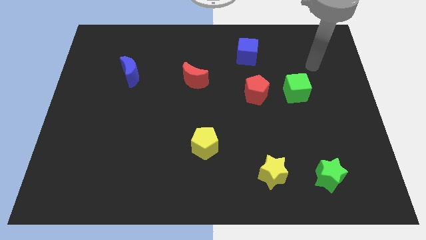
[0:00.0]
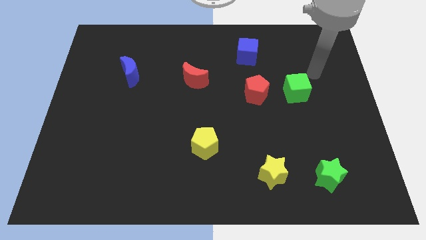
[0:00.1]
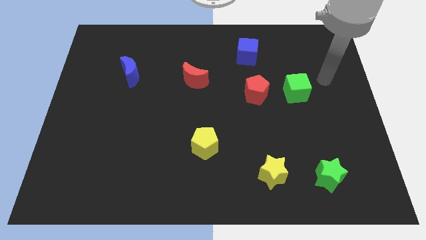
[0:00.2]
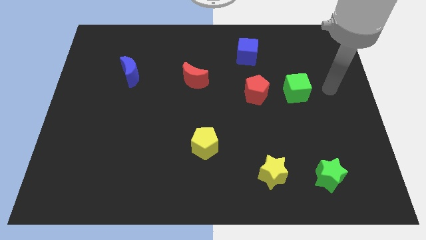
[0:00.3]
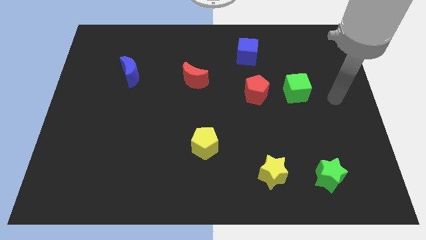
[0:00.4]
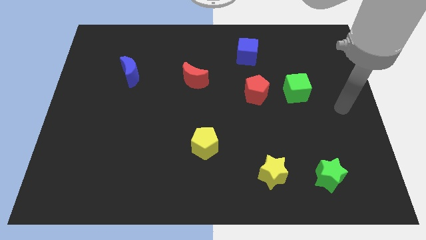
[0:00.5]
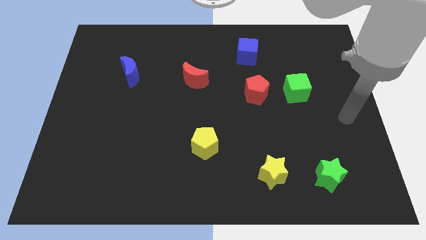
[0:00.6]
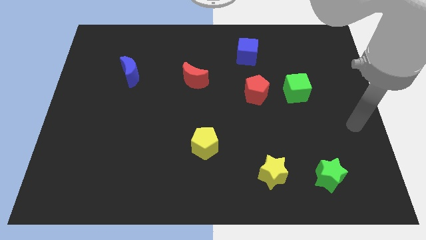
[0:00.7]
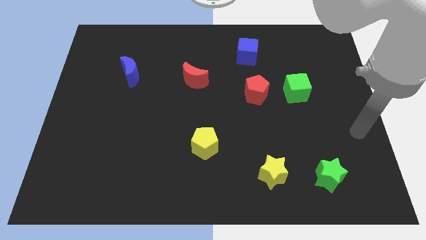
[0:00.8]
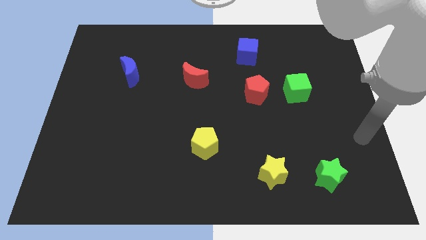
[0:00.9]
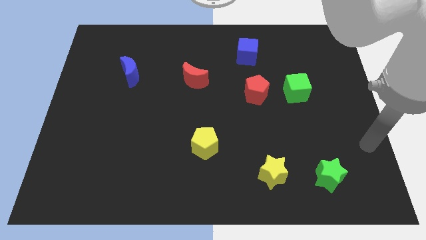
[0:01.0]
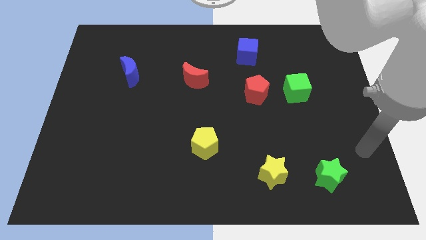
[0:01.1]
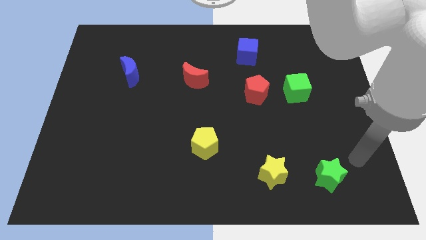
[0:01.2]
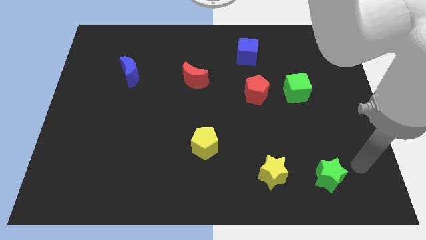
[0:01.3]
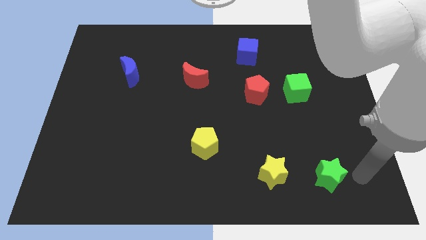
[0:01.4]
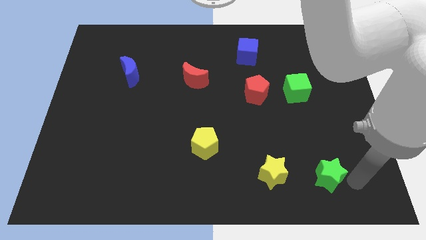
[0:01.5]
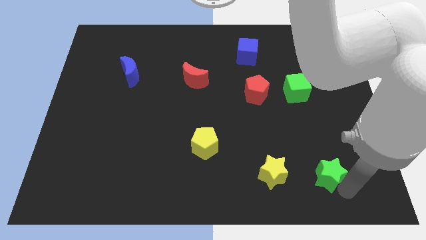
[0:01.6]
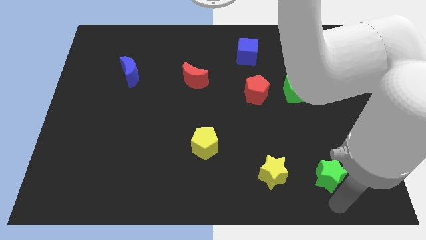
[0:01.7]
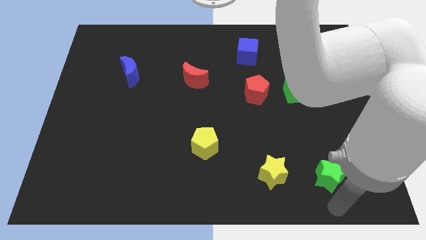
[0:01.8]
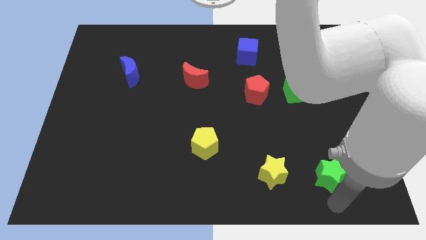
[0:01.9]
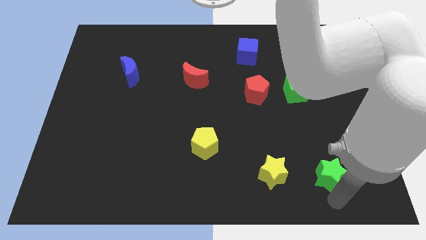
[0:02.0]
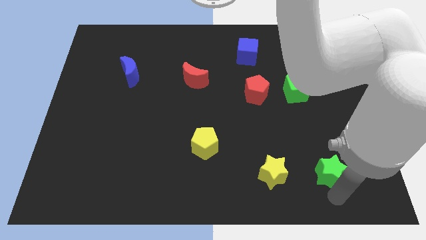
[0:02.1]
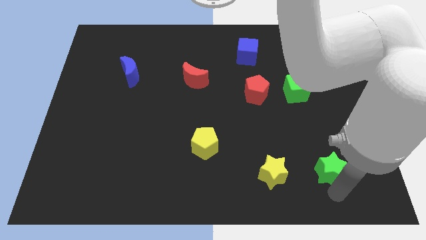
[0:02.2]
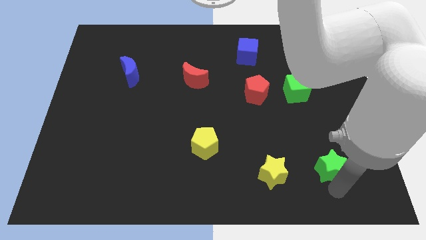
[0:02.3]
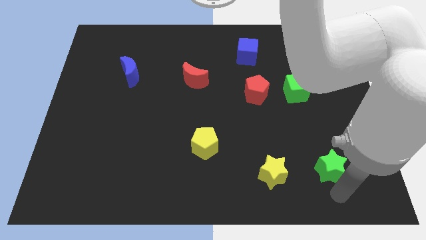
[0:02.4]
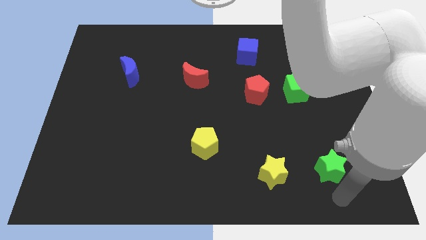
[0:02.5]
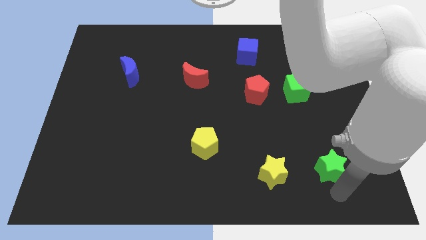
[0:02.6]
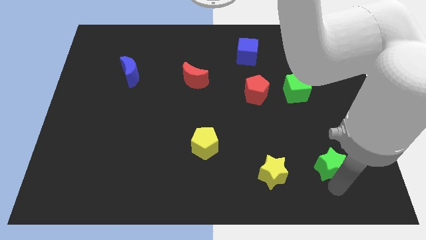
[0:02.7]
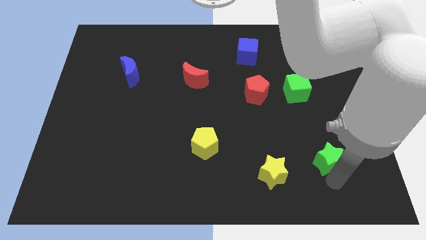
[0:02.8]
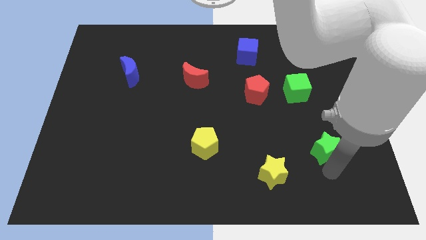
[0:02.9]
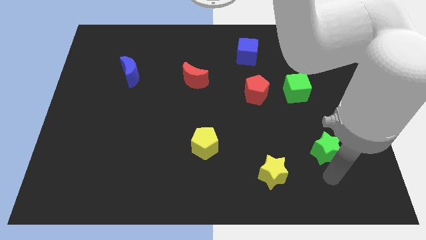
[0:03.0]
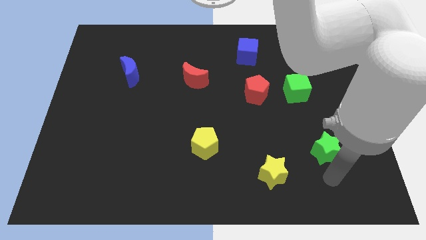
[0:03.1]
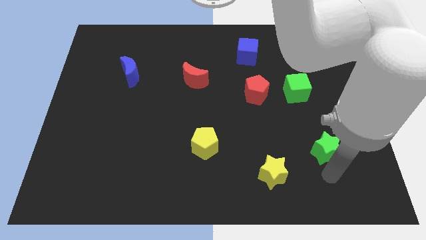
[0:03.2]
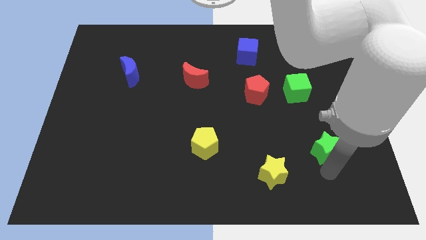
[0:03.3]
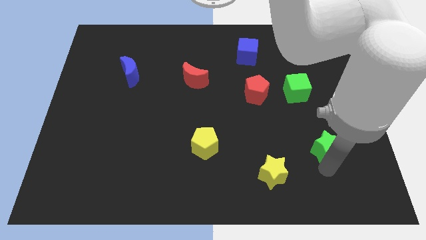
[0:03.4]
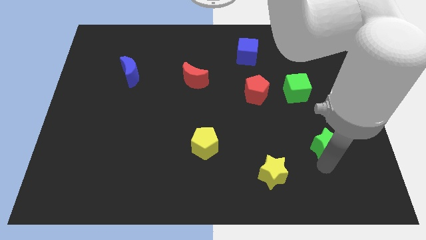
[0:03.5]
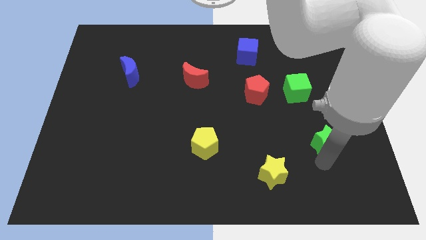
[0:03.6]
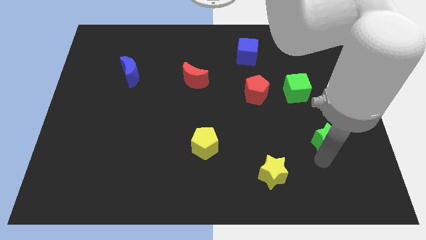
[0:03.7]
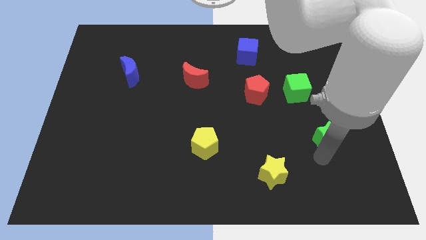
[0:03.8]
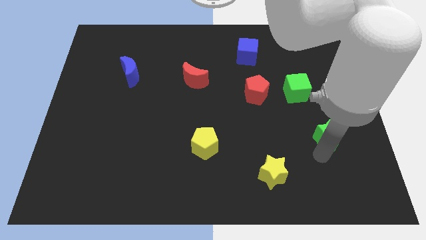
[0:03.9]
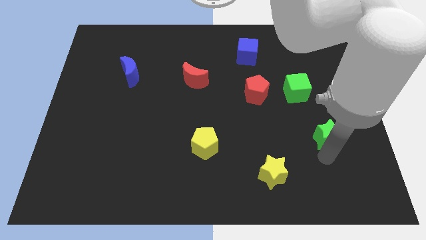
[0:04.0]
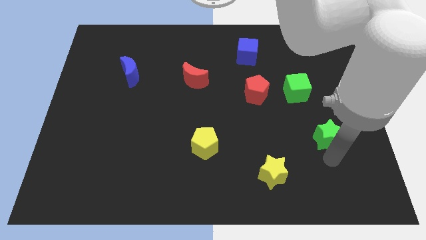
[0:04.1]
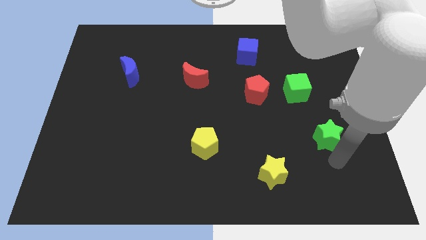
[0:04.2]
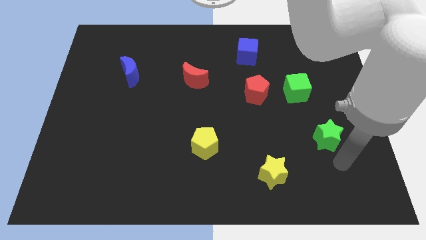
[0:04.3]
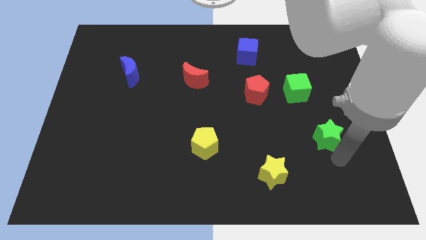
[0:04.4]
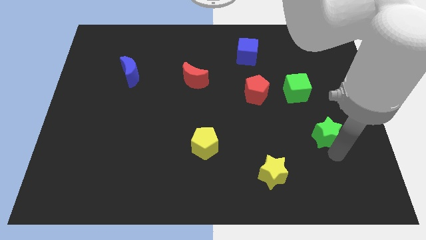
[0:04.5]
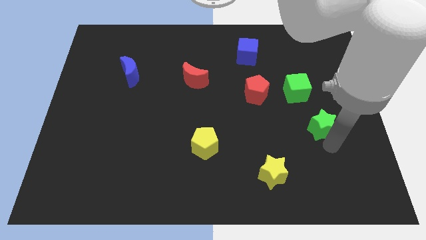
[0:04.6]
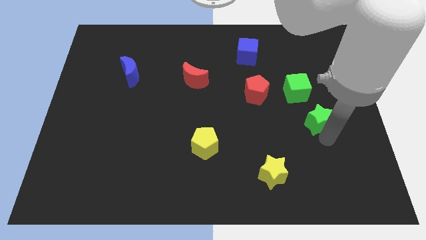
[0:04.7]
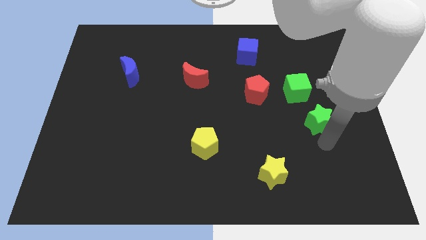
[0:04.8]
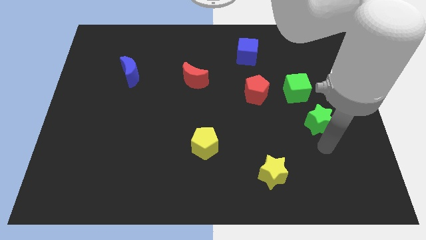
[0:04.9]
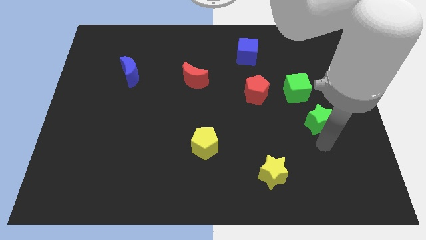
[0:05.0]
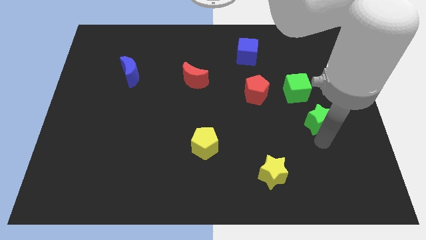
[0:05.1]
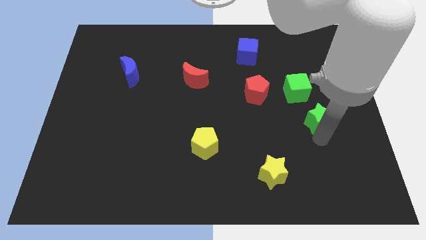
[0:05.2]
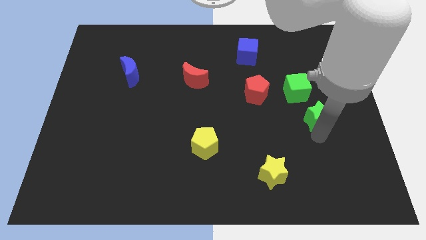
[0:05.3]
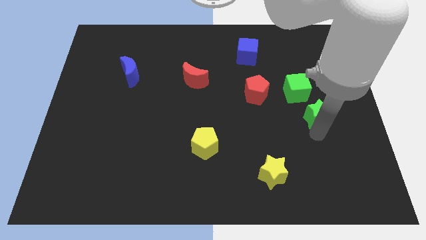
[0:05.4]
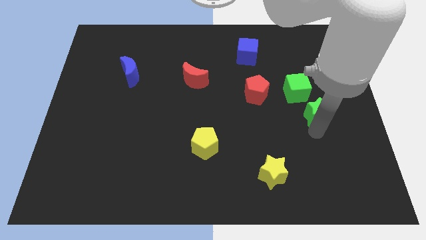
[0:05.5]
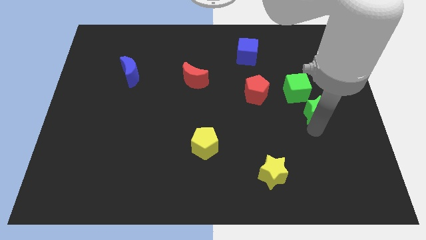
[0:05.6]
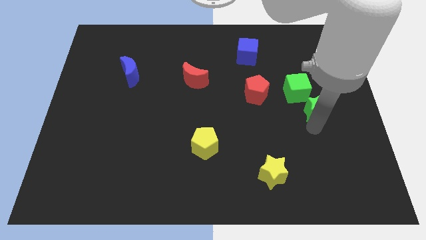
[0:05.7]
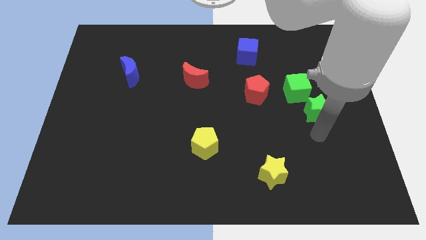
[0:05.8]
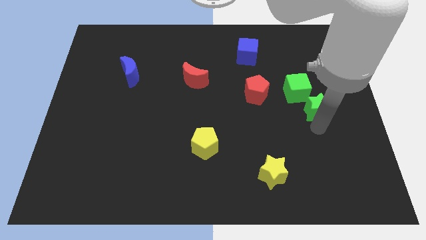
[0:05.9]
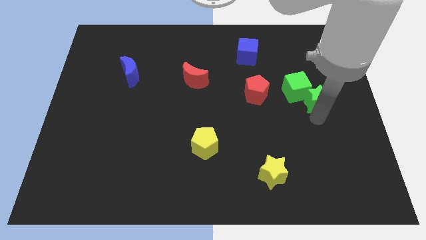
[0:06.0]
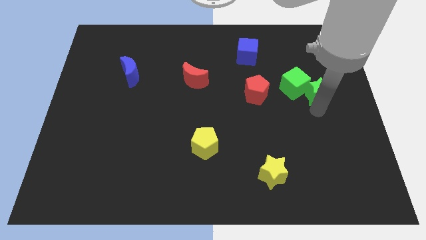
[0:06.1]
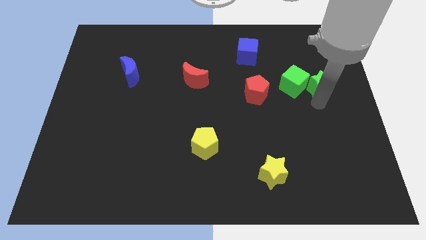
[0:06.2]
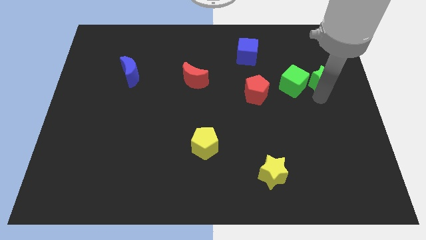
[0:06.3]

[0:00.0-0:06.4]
slide the green star to the top right of the green cube
